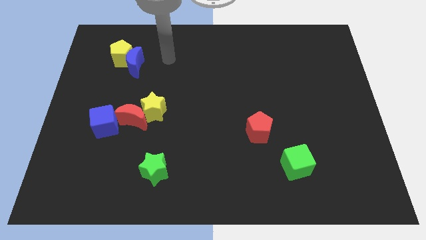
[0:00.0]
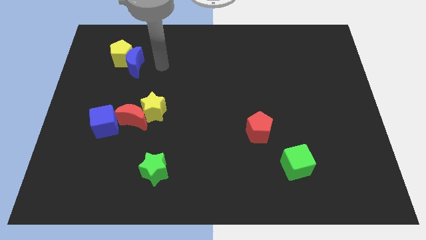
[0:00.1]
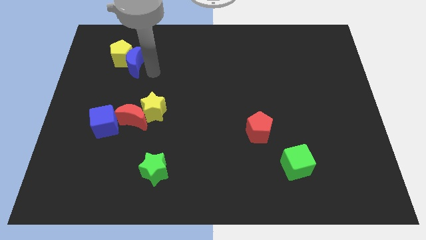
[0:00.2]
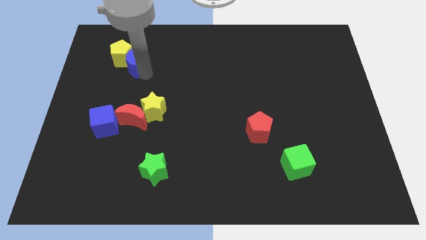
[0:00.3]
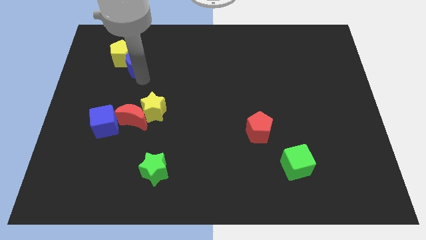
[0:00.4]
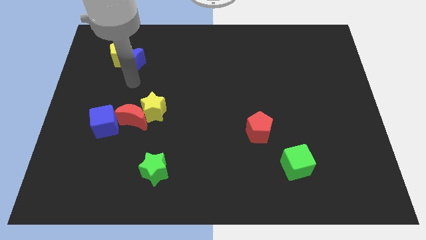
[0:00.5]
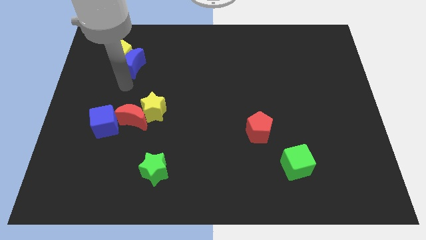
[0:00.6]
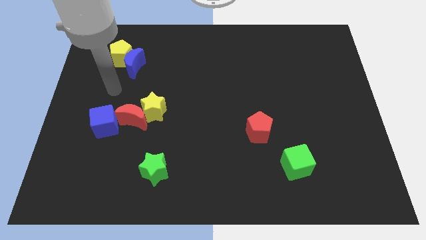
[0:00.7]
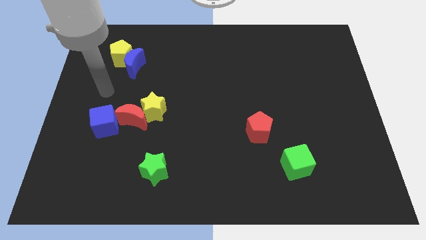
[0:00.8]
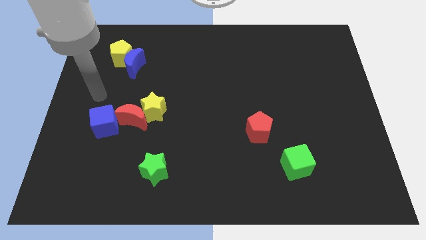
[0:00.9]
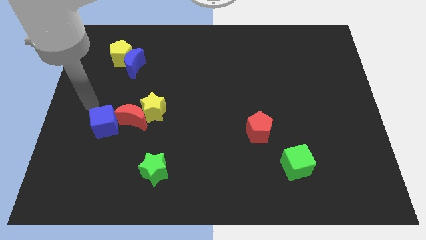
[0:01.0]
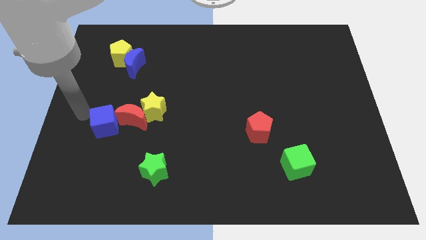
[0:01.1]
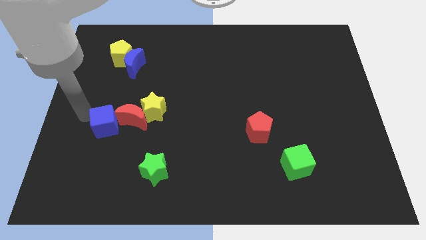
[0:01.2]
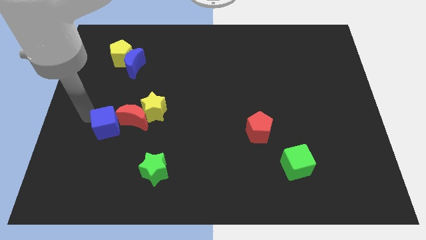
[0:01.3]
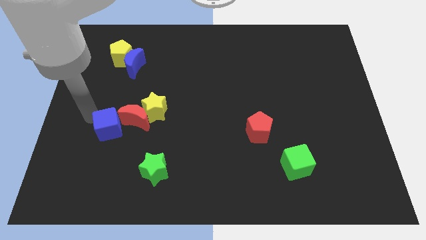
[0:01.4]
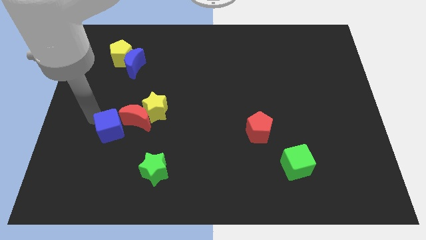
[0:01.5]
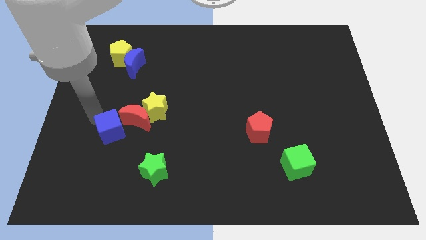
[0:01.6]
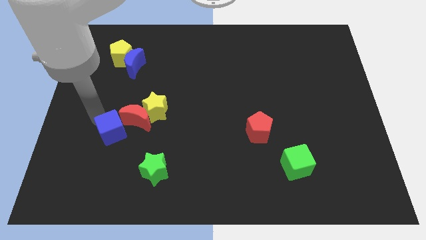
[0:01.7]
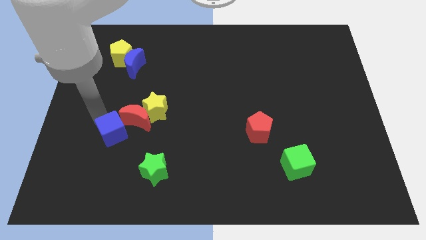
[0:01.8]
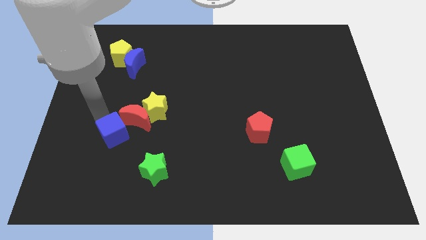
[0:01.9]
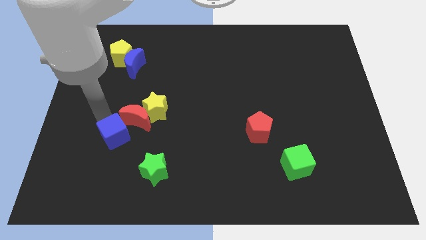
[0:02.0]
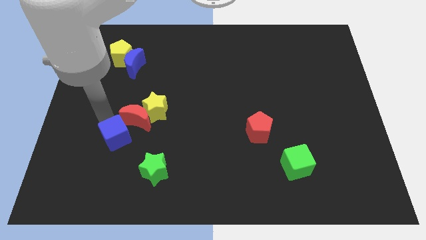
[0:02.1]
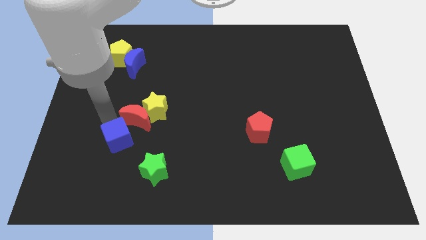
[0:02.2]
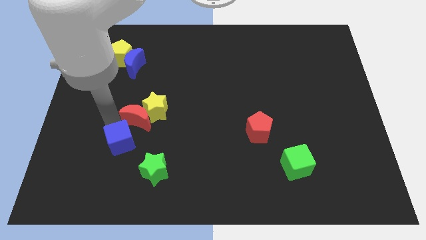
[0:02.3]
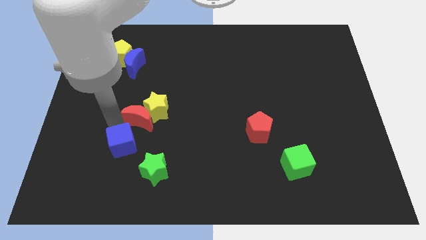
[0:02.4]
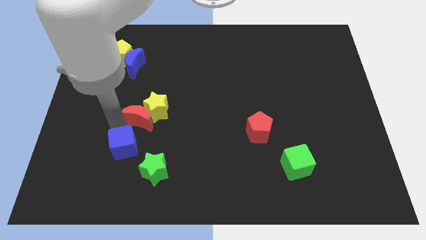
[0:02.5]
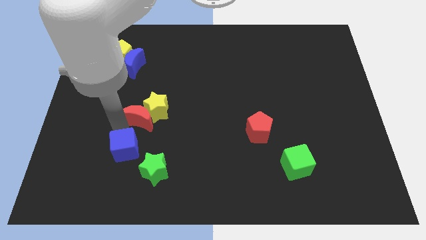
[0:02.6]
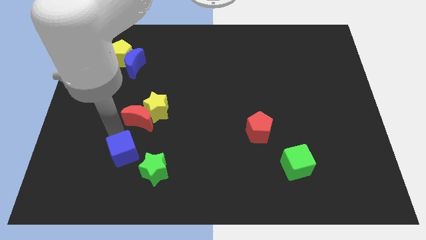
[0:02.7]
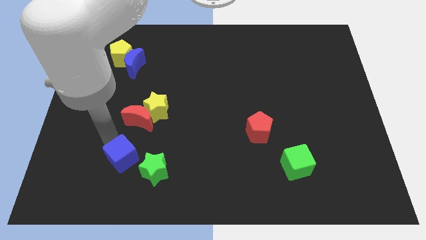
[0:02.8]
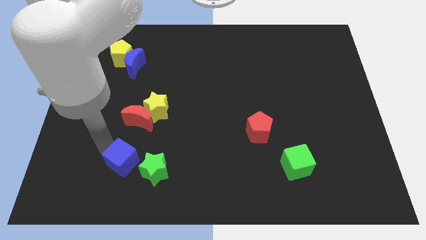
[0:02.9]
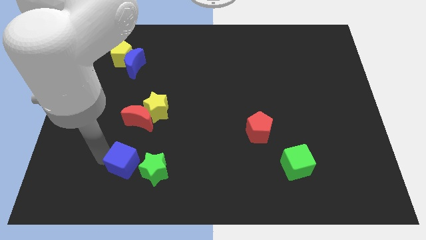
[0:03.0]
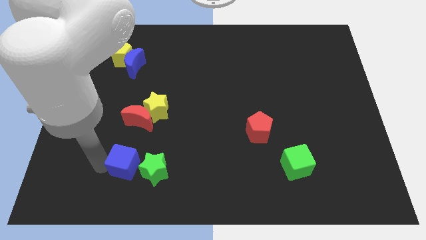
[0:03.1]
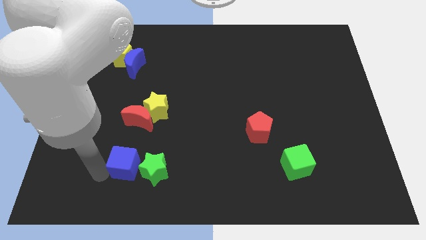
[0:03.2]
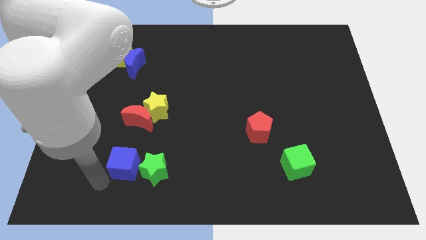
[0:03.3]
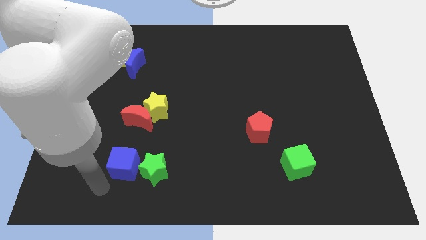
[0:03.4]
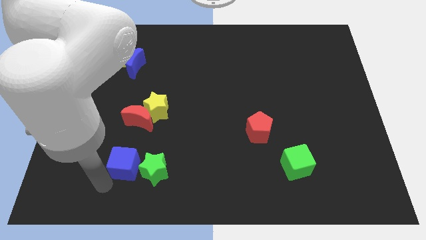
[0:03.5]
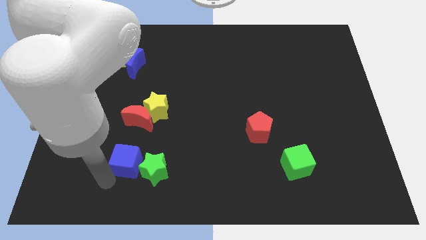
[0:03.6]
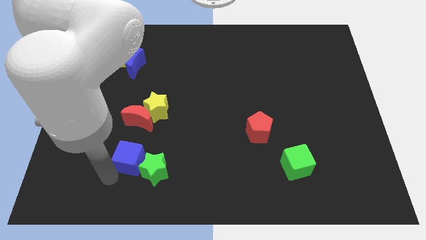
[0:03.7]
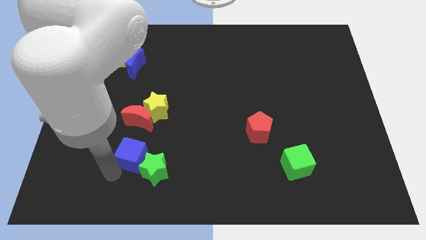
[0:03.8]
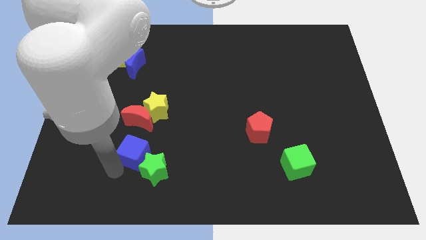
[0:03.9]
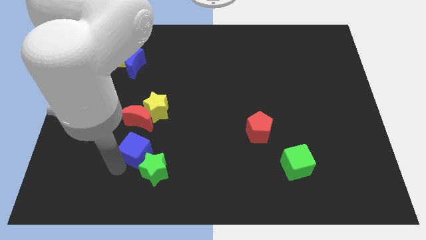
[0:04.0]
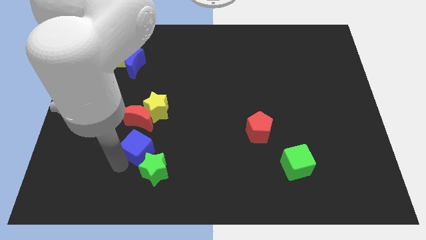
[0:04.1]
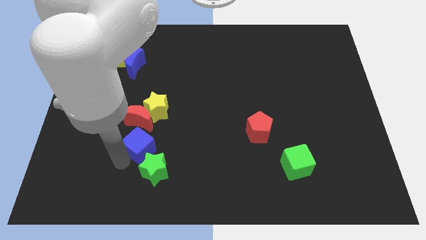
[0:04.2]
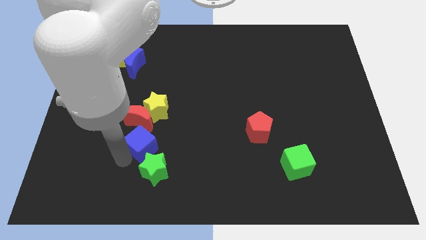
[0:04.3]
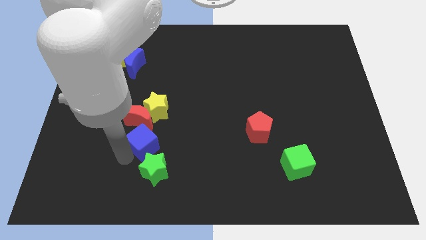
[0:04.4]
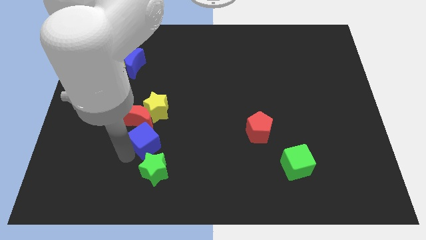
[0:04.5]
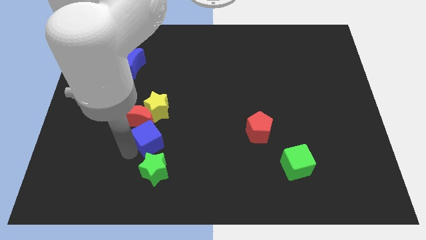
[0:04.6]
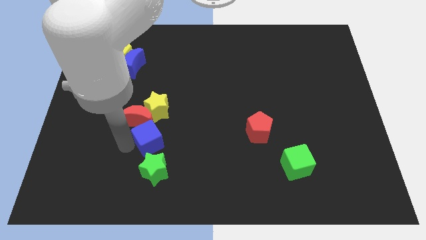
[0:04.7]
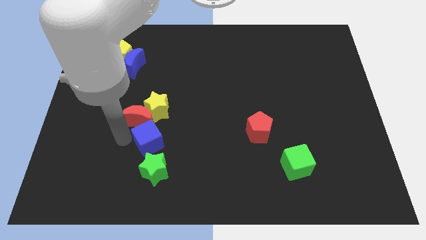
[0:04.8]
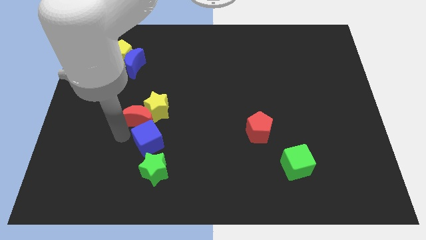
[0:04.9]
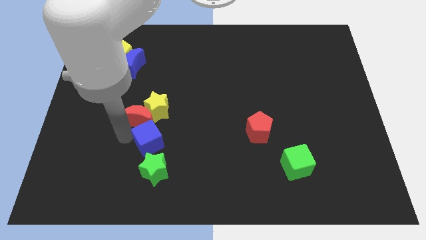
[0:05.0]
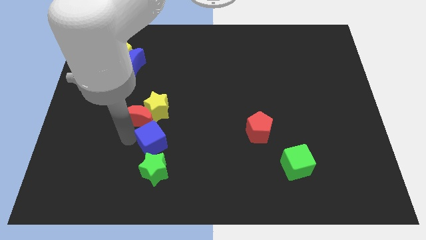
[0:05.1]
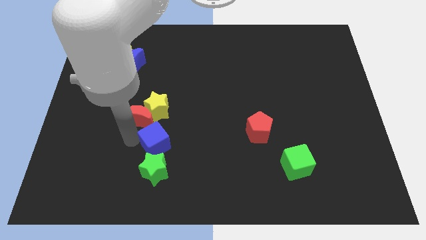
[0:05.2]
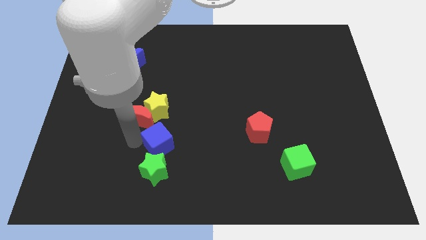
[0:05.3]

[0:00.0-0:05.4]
move the blue cube diagonally up and to the right of the green star

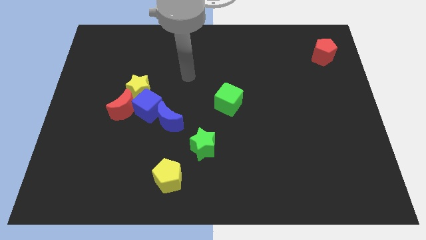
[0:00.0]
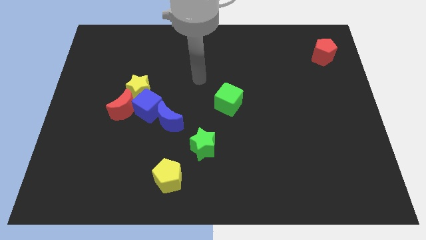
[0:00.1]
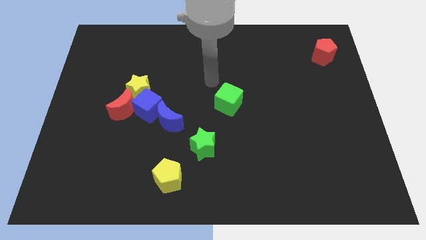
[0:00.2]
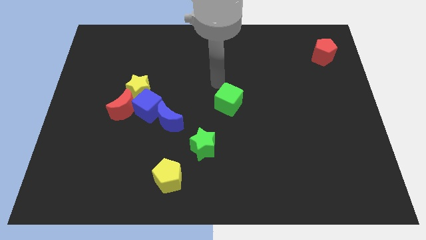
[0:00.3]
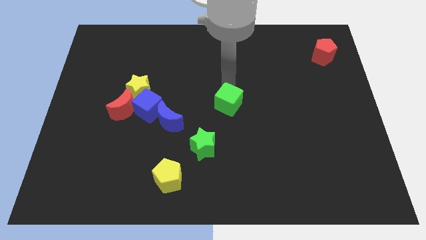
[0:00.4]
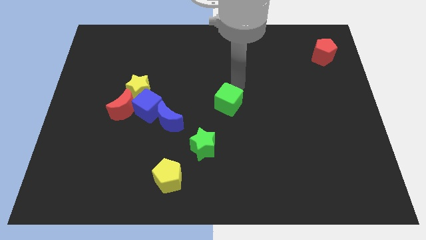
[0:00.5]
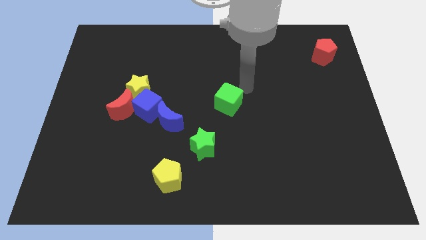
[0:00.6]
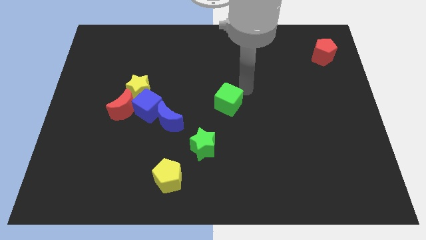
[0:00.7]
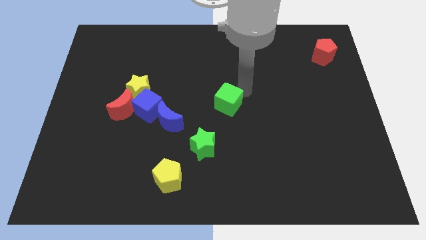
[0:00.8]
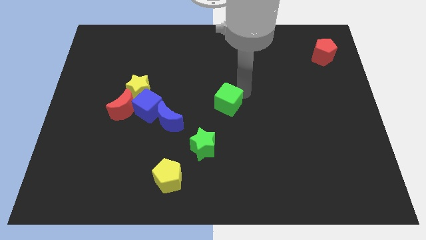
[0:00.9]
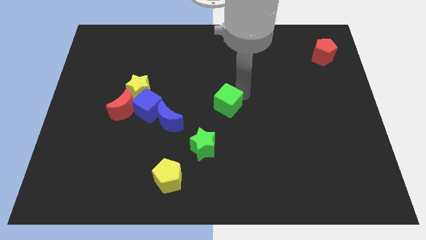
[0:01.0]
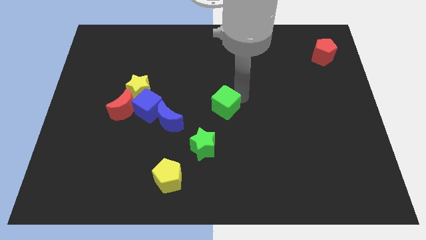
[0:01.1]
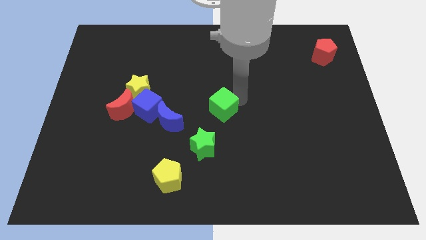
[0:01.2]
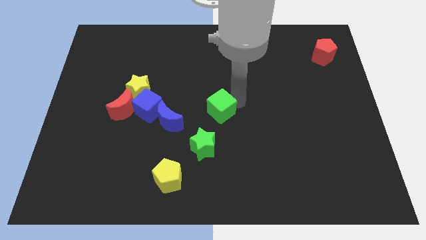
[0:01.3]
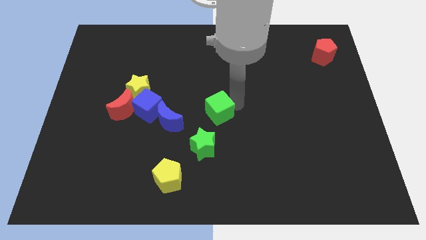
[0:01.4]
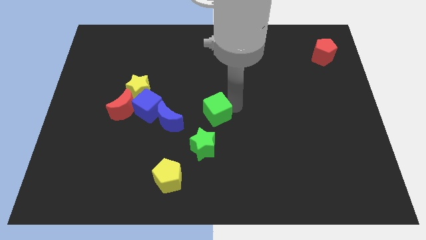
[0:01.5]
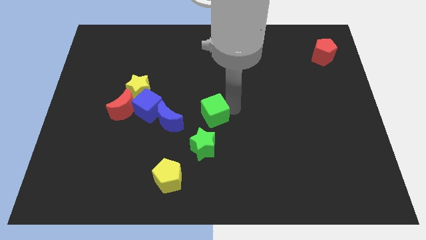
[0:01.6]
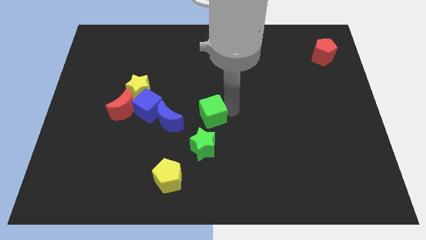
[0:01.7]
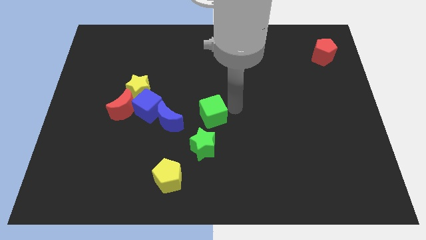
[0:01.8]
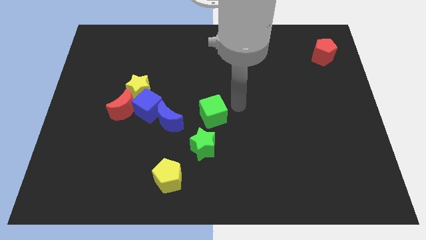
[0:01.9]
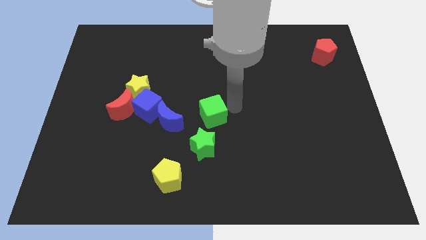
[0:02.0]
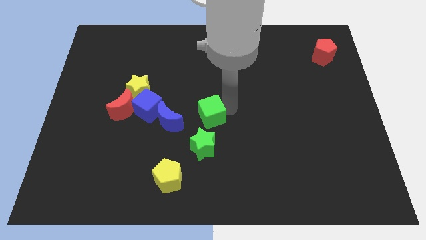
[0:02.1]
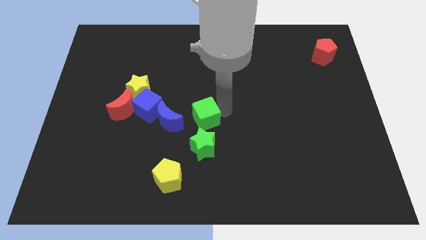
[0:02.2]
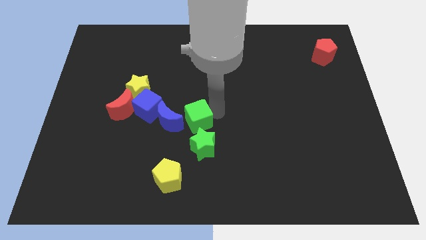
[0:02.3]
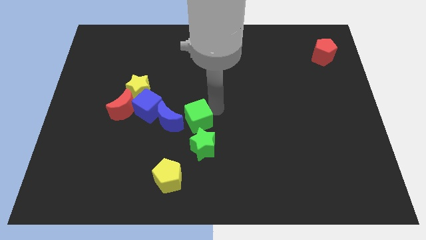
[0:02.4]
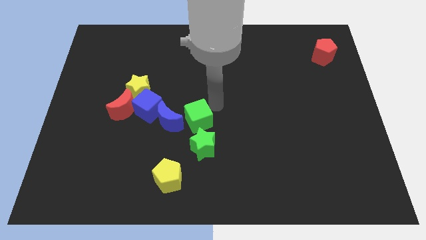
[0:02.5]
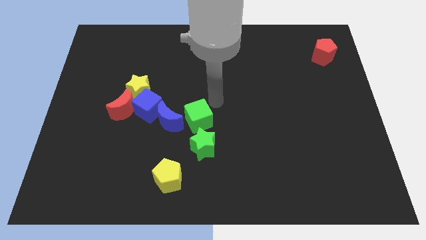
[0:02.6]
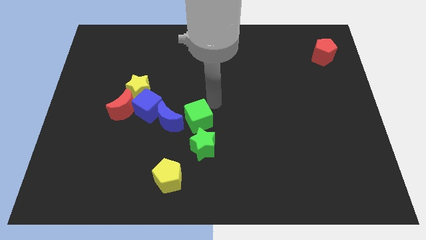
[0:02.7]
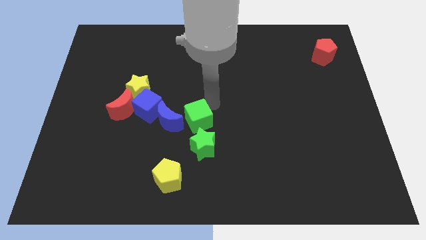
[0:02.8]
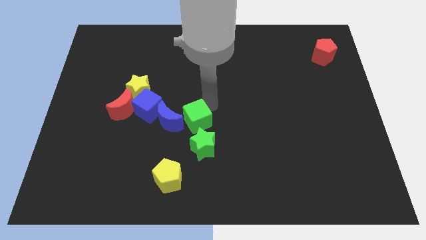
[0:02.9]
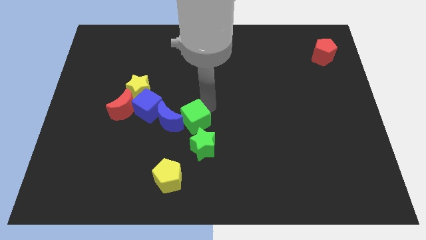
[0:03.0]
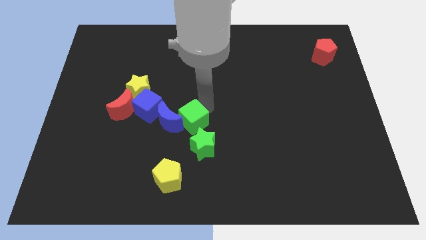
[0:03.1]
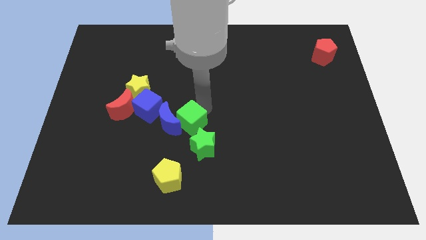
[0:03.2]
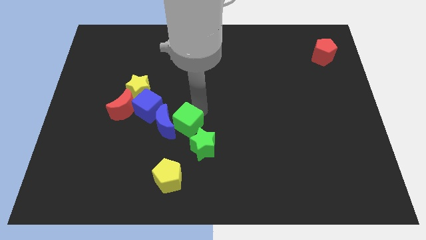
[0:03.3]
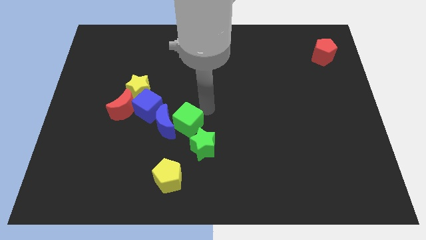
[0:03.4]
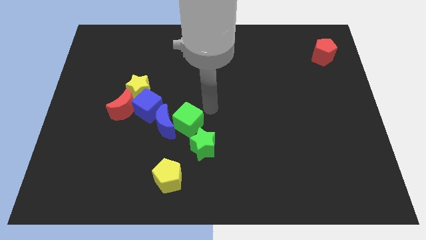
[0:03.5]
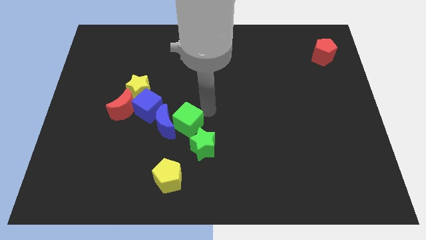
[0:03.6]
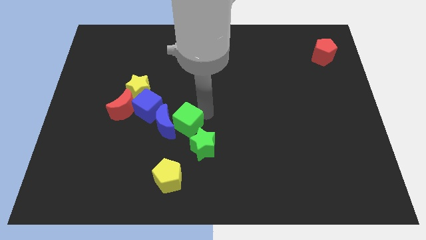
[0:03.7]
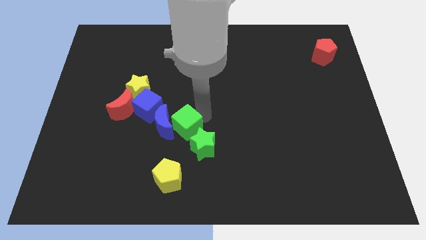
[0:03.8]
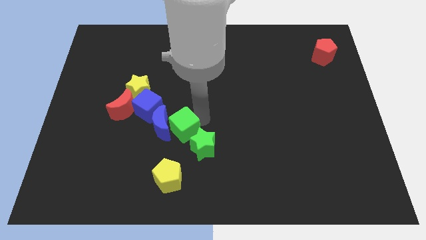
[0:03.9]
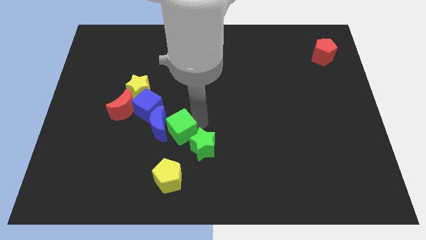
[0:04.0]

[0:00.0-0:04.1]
push the green cube to the left side of the green star
